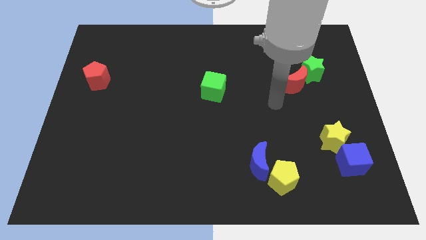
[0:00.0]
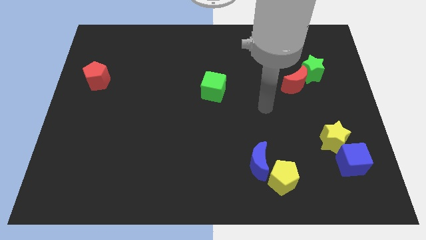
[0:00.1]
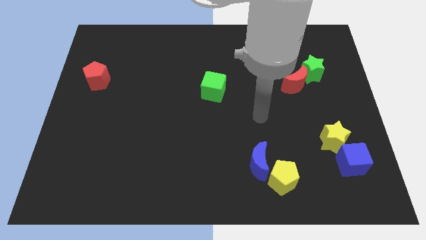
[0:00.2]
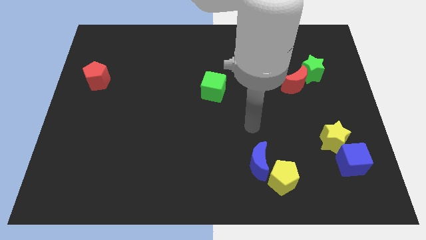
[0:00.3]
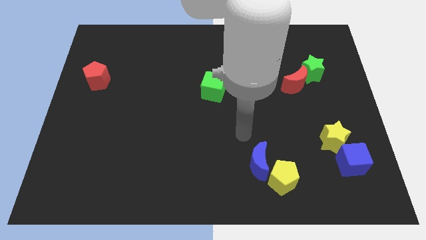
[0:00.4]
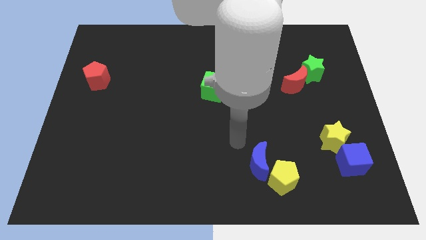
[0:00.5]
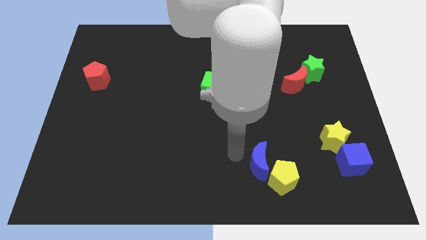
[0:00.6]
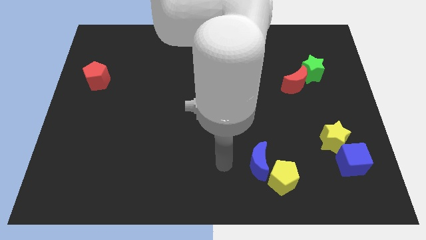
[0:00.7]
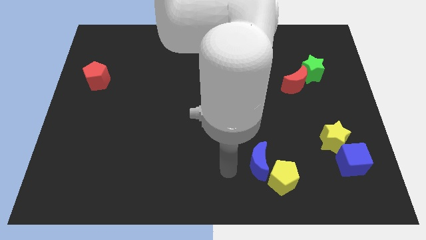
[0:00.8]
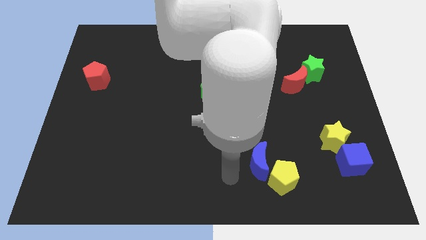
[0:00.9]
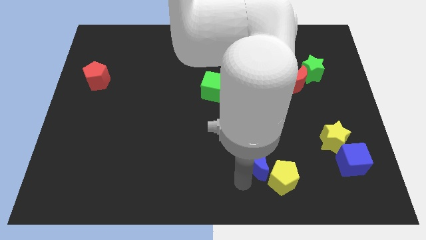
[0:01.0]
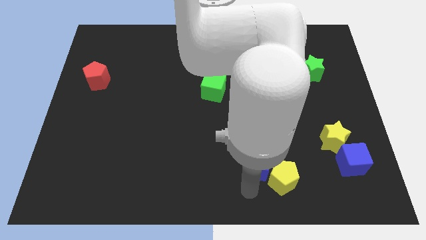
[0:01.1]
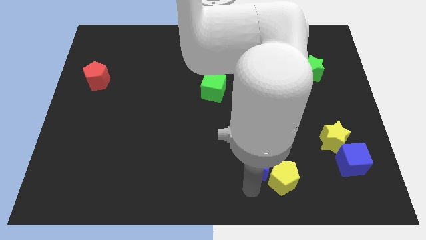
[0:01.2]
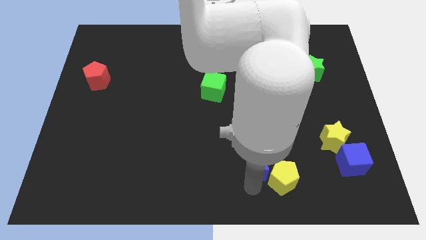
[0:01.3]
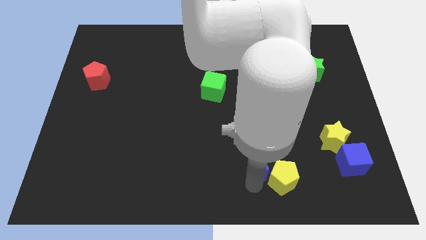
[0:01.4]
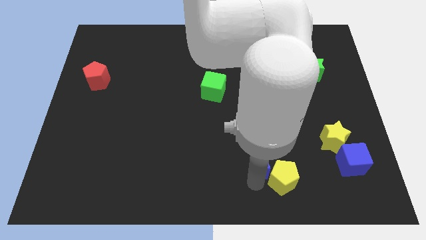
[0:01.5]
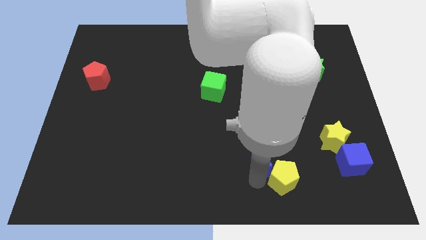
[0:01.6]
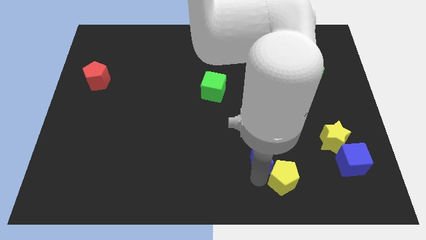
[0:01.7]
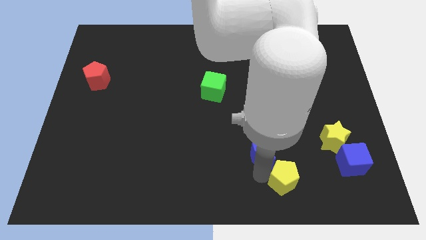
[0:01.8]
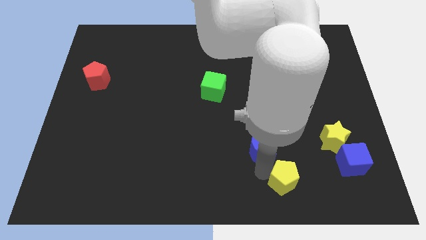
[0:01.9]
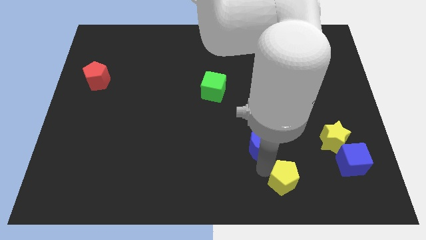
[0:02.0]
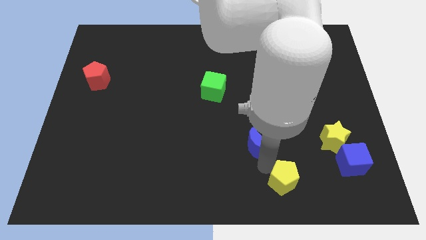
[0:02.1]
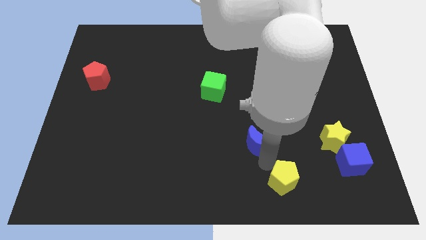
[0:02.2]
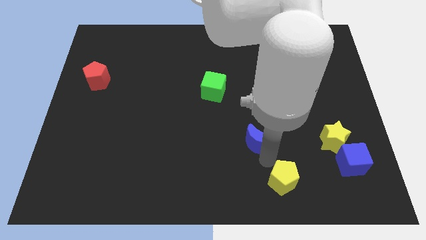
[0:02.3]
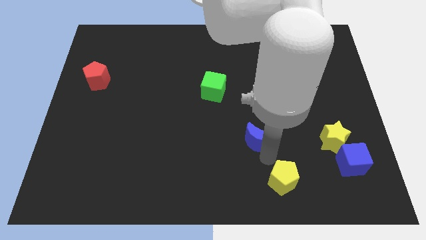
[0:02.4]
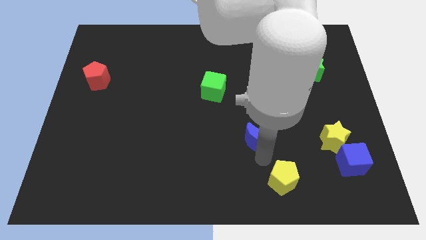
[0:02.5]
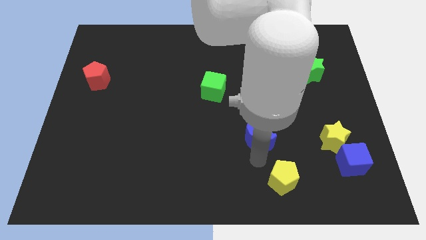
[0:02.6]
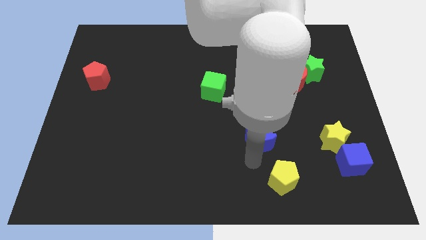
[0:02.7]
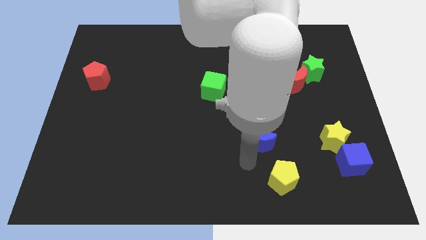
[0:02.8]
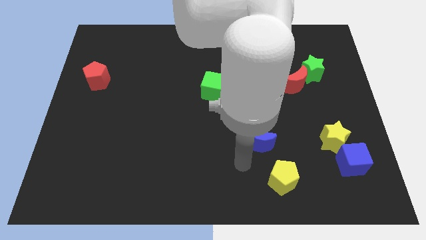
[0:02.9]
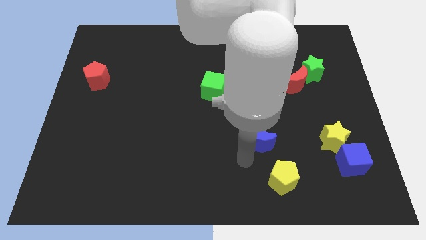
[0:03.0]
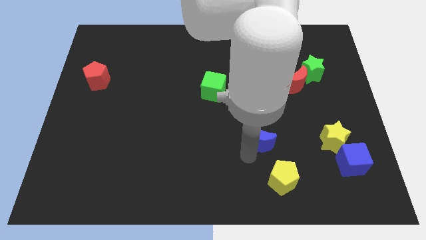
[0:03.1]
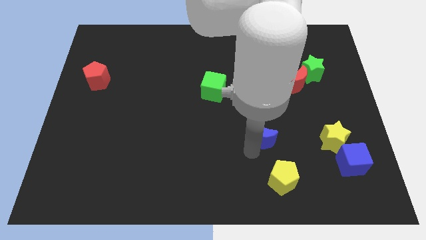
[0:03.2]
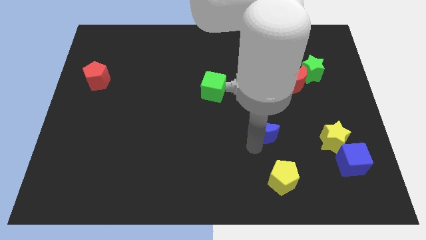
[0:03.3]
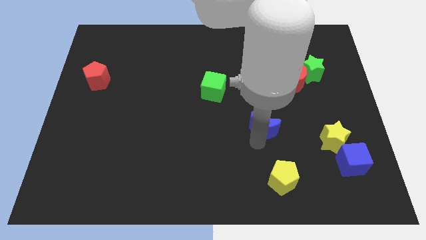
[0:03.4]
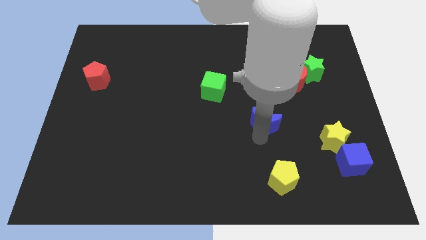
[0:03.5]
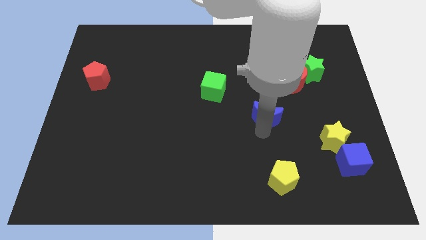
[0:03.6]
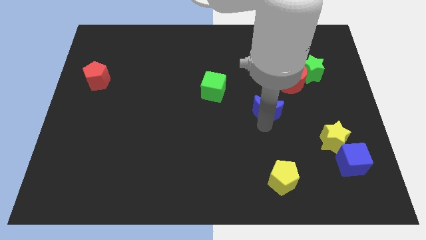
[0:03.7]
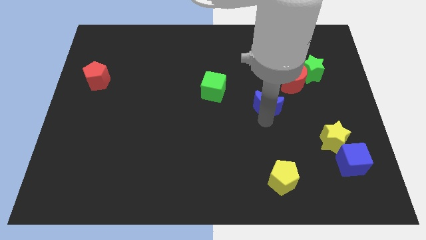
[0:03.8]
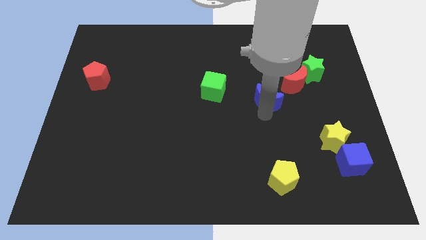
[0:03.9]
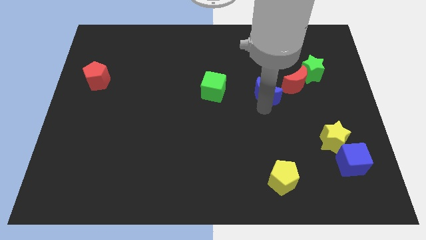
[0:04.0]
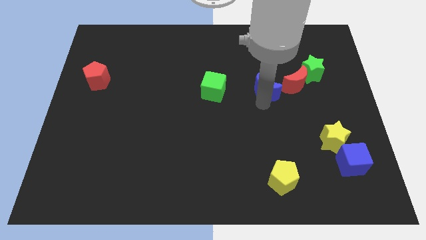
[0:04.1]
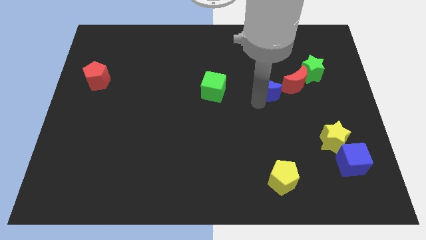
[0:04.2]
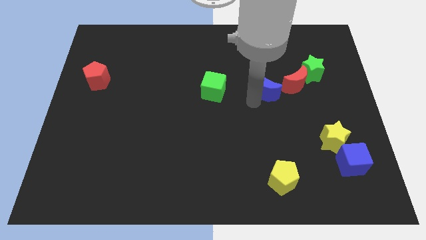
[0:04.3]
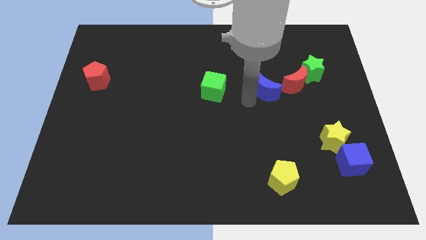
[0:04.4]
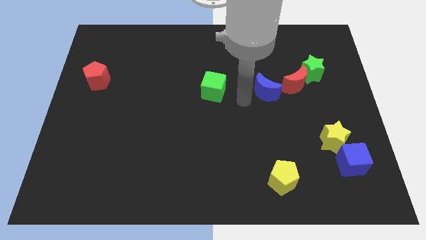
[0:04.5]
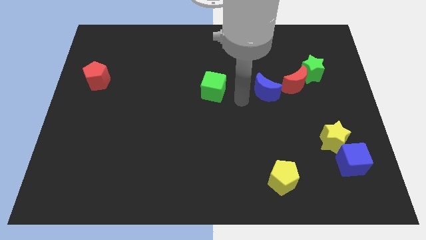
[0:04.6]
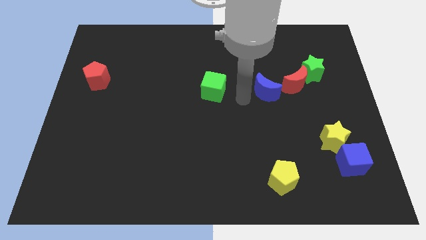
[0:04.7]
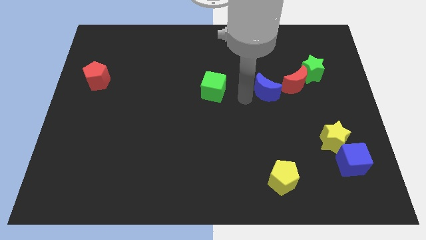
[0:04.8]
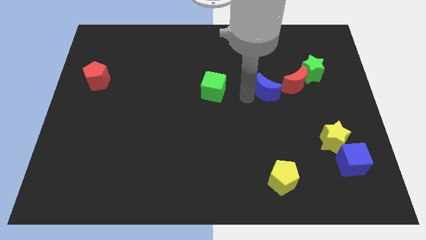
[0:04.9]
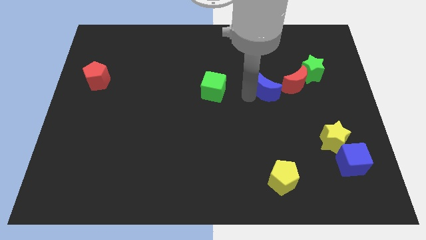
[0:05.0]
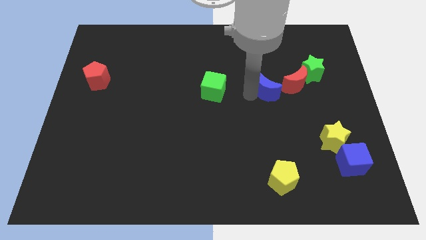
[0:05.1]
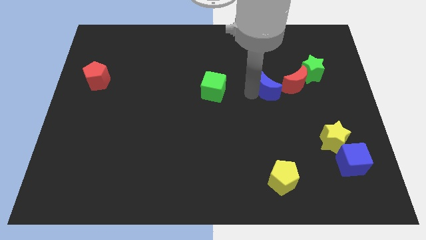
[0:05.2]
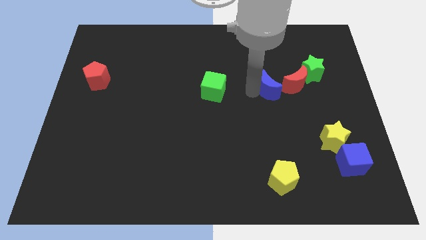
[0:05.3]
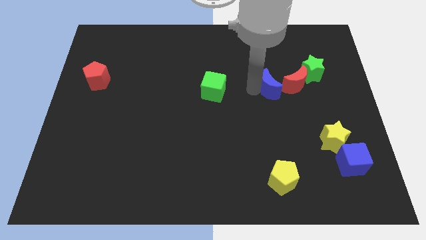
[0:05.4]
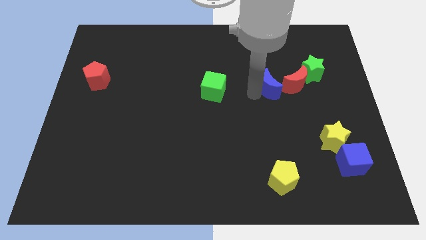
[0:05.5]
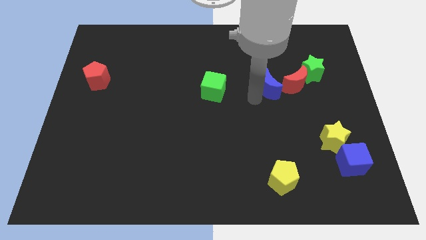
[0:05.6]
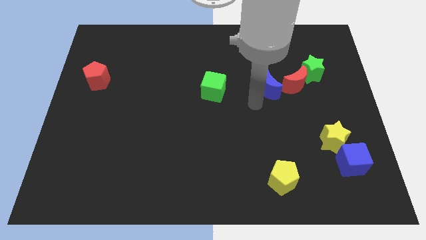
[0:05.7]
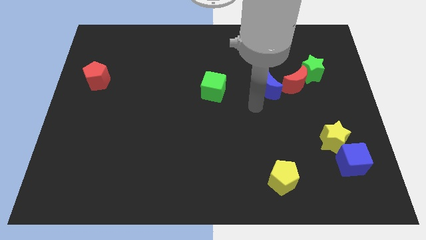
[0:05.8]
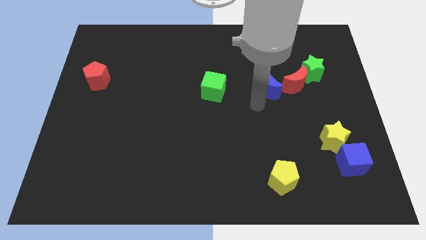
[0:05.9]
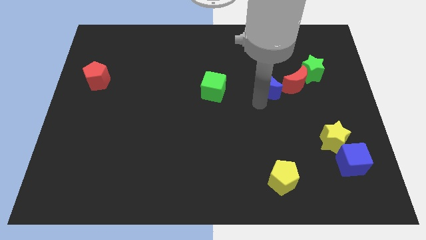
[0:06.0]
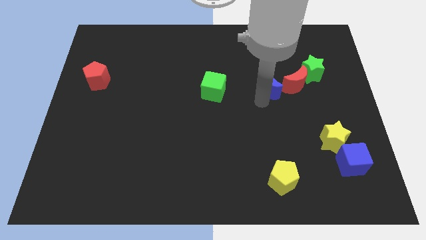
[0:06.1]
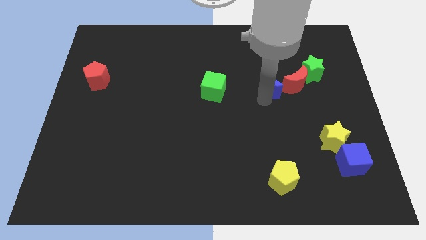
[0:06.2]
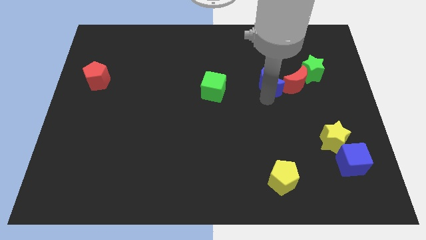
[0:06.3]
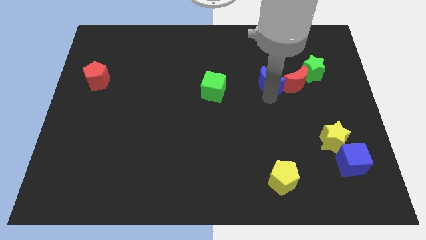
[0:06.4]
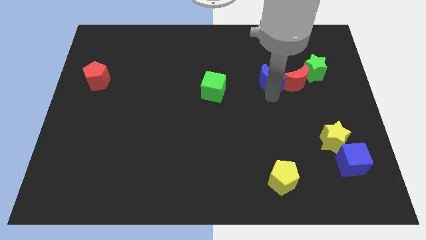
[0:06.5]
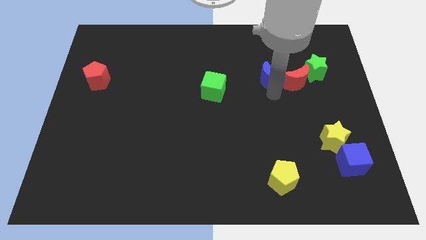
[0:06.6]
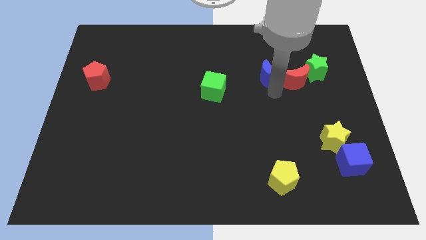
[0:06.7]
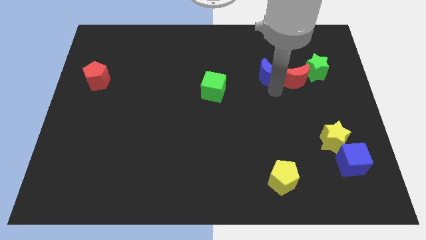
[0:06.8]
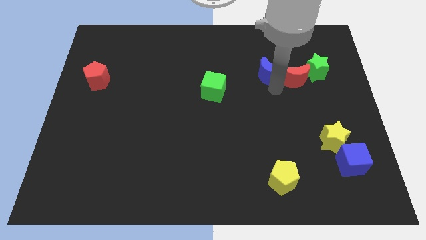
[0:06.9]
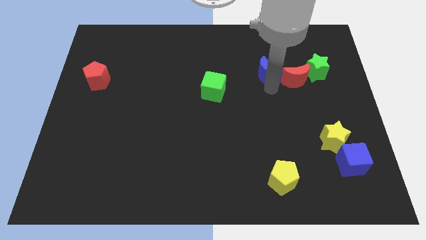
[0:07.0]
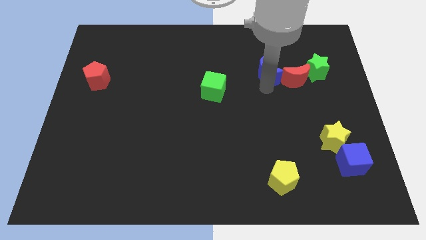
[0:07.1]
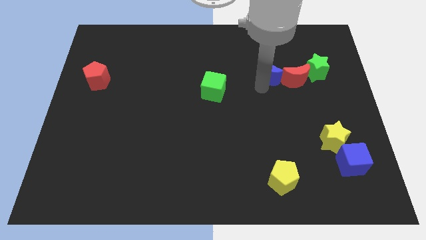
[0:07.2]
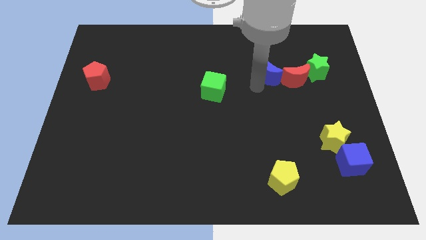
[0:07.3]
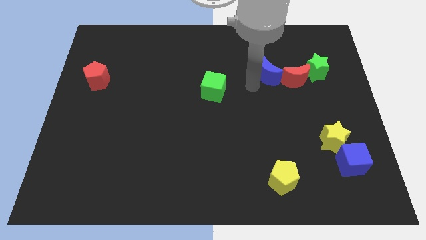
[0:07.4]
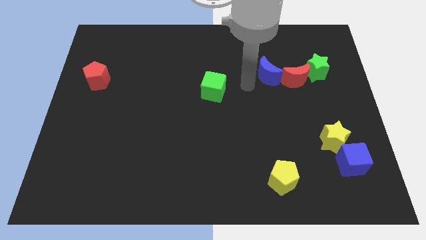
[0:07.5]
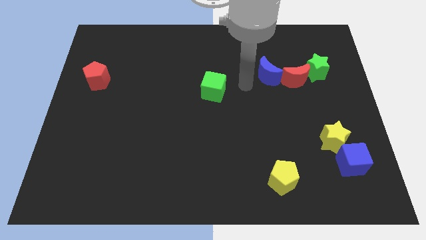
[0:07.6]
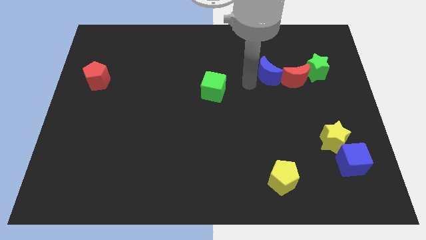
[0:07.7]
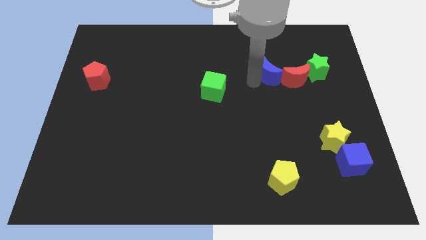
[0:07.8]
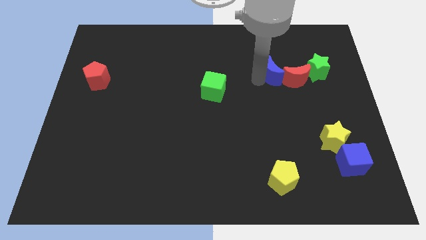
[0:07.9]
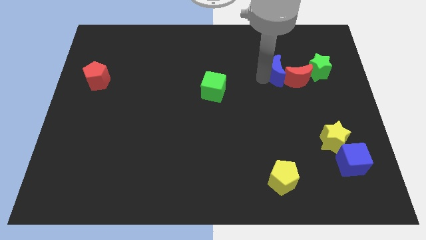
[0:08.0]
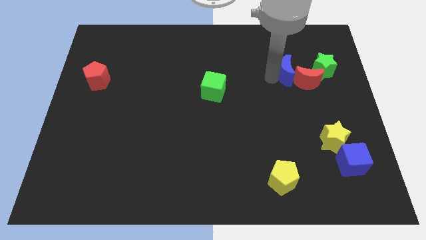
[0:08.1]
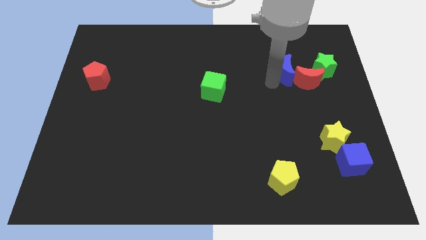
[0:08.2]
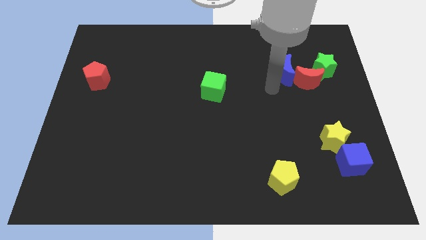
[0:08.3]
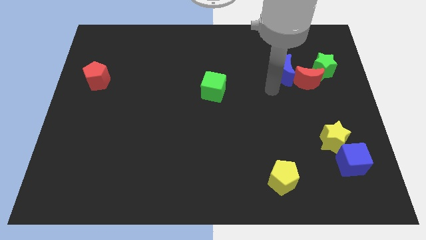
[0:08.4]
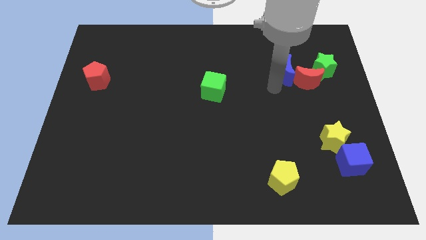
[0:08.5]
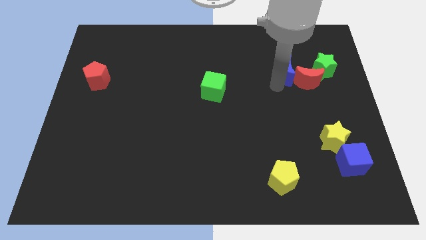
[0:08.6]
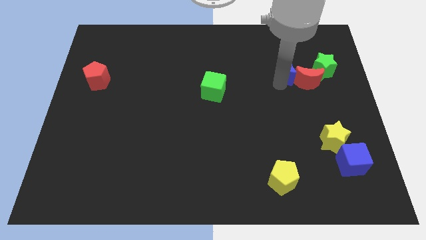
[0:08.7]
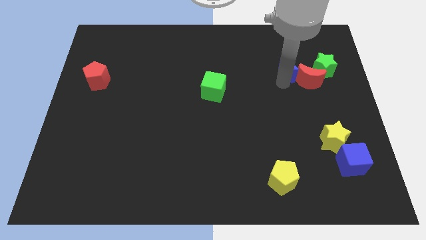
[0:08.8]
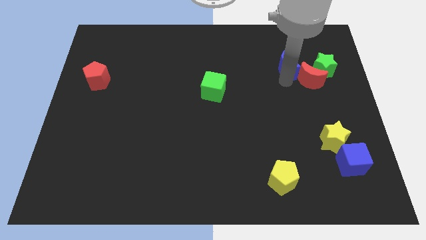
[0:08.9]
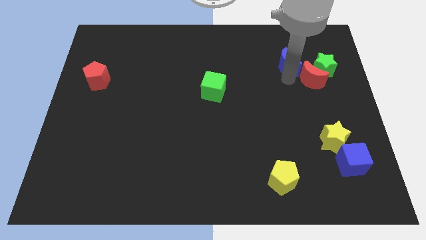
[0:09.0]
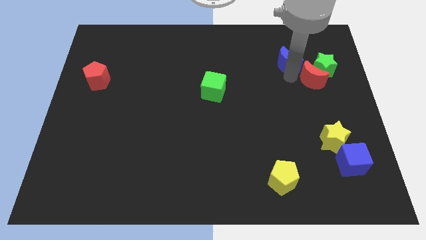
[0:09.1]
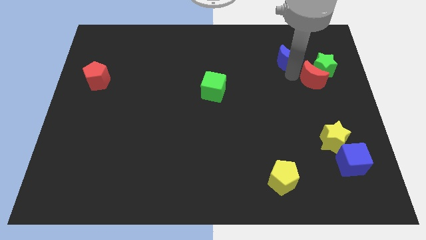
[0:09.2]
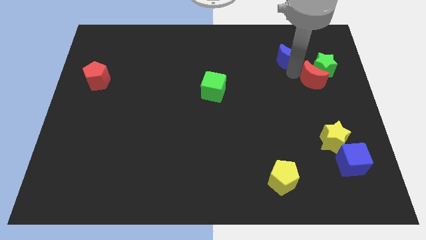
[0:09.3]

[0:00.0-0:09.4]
push the blue moon above the red moon
